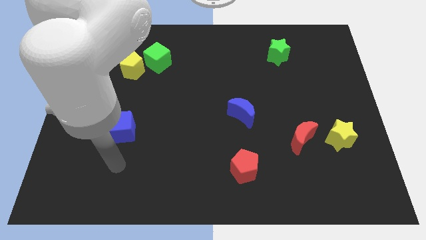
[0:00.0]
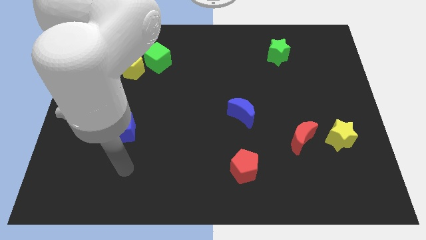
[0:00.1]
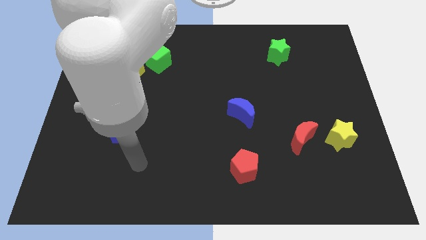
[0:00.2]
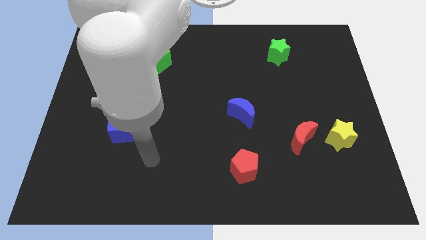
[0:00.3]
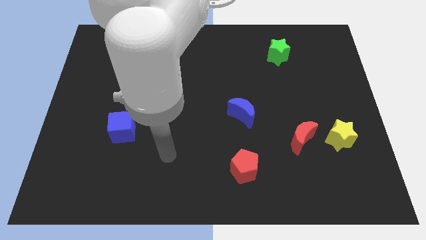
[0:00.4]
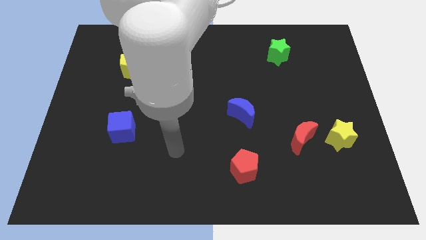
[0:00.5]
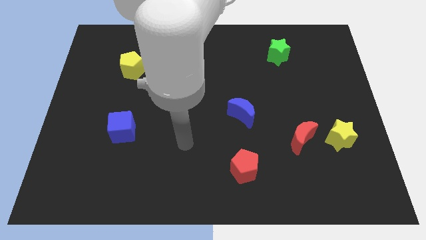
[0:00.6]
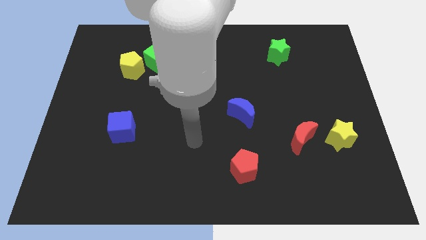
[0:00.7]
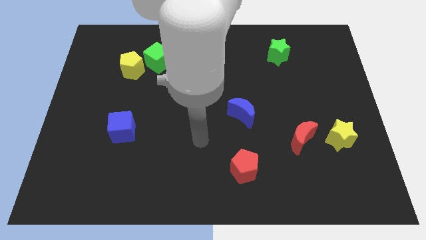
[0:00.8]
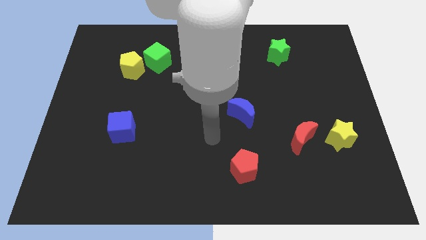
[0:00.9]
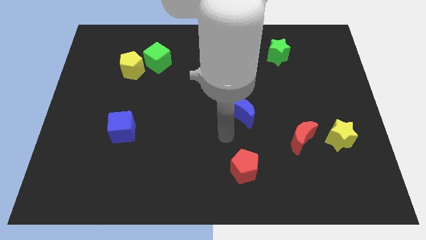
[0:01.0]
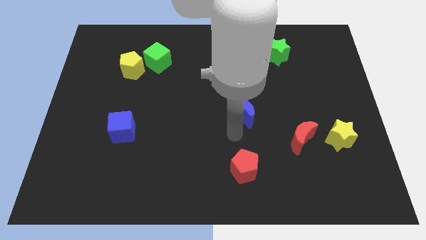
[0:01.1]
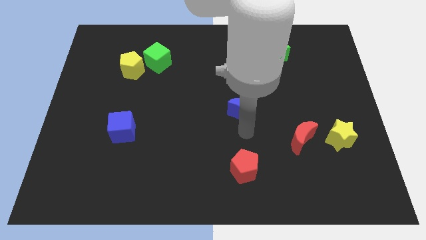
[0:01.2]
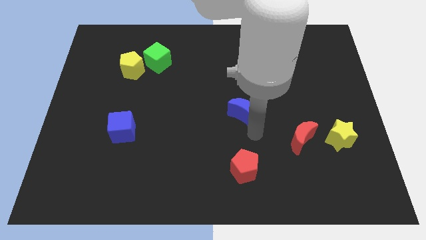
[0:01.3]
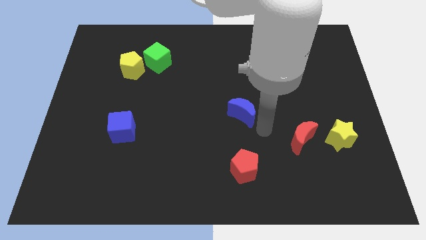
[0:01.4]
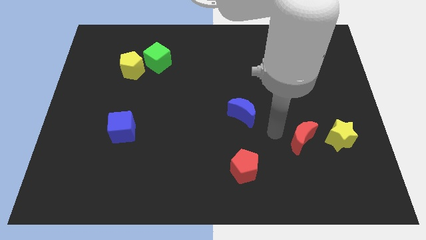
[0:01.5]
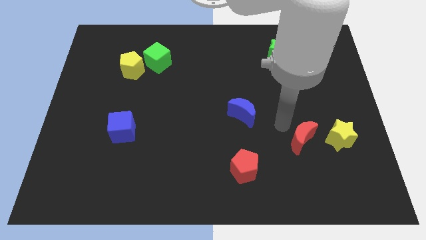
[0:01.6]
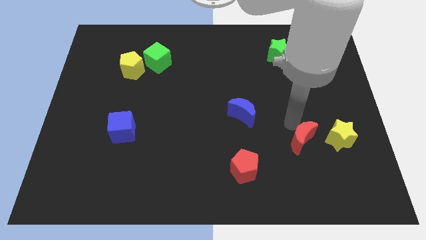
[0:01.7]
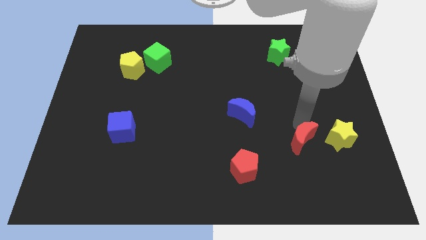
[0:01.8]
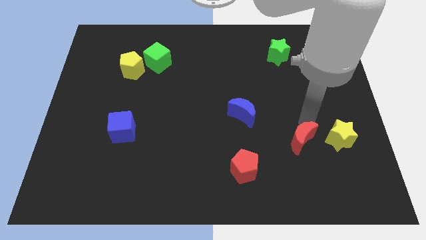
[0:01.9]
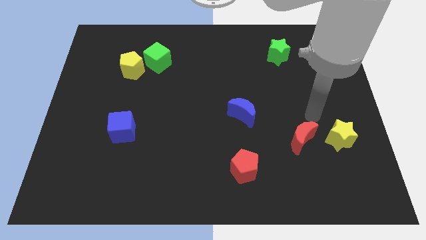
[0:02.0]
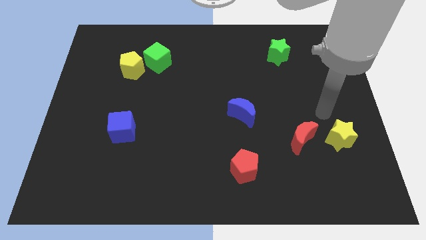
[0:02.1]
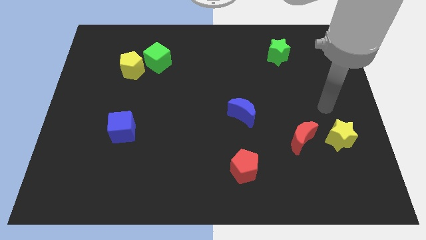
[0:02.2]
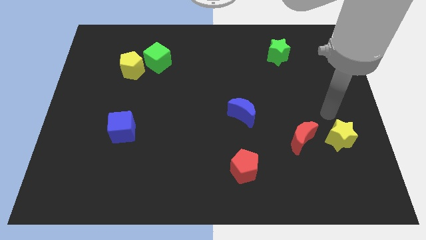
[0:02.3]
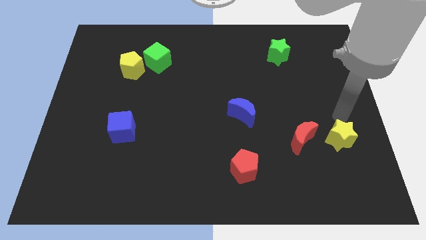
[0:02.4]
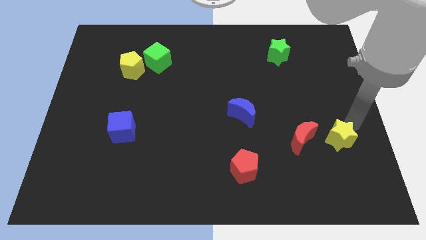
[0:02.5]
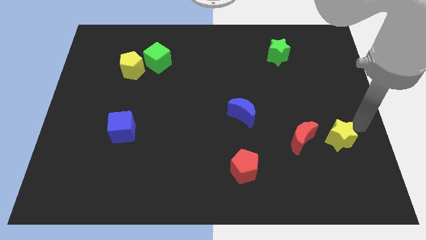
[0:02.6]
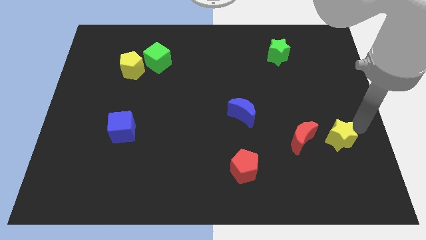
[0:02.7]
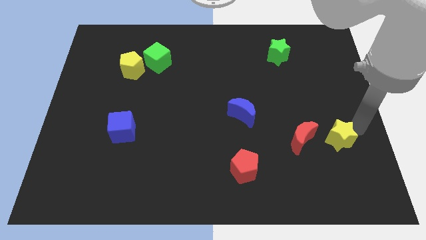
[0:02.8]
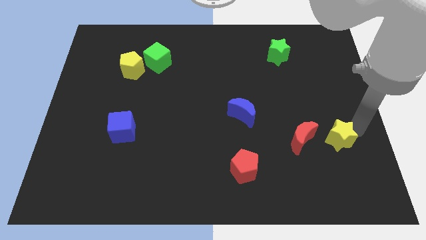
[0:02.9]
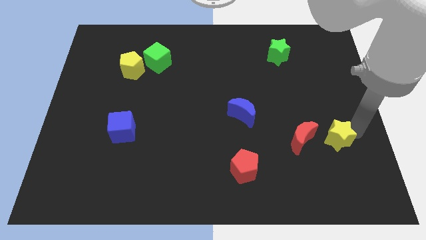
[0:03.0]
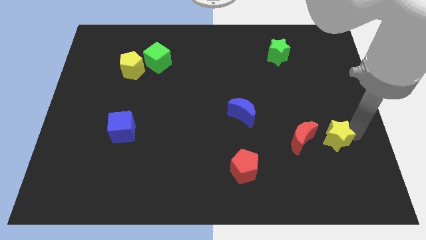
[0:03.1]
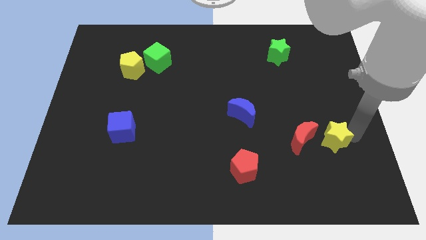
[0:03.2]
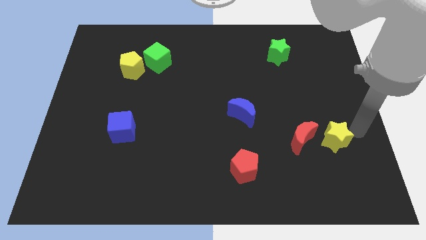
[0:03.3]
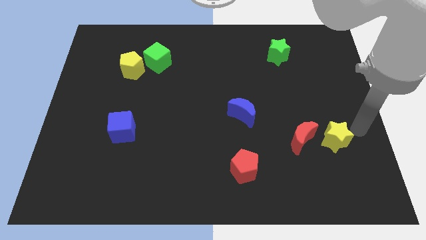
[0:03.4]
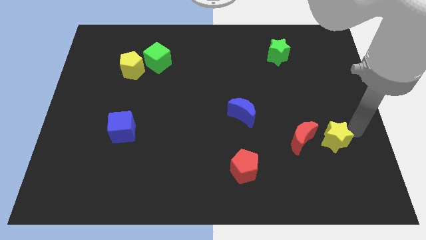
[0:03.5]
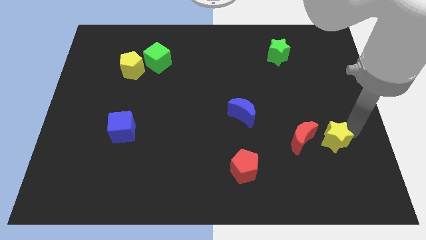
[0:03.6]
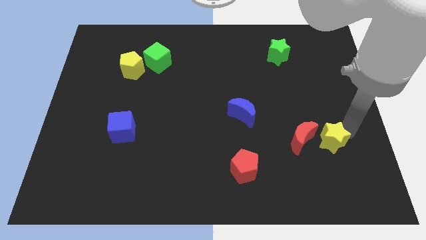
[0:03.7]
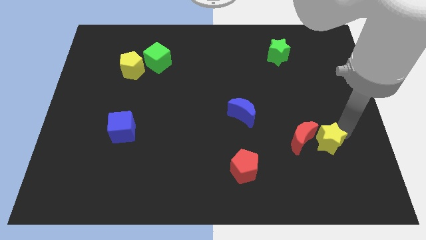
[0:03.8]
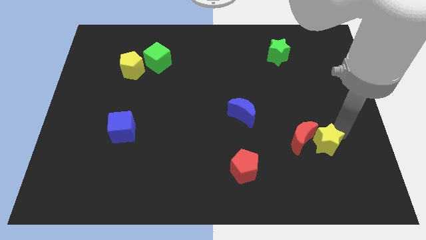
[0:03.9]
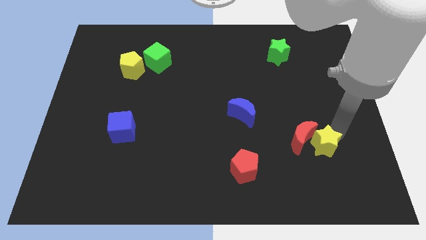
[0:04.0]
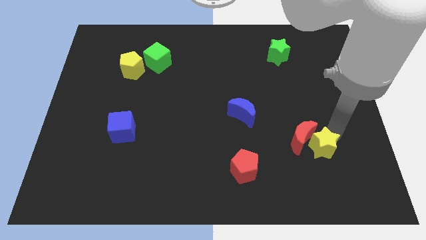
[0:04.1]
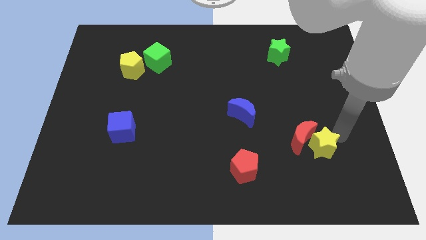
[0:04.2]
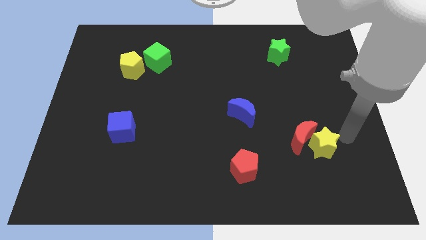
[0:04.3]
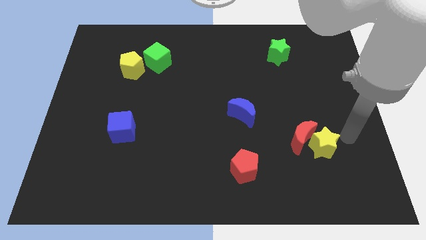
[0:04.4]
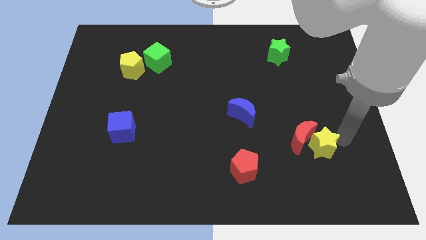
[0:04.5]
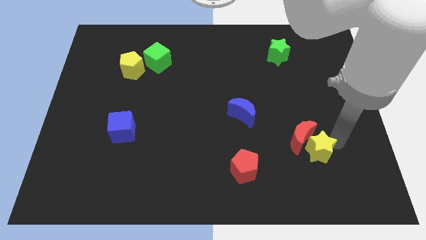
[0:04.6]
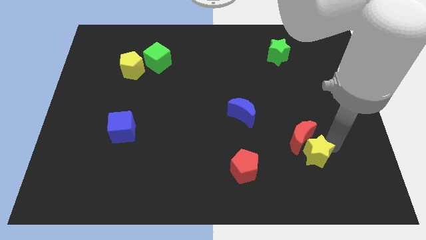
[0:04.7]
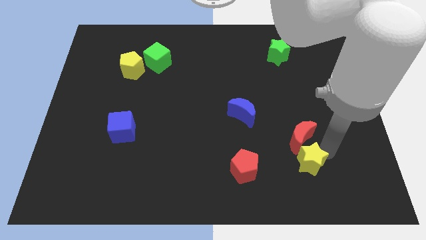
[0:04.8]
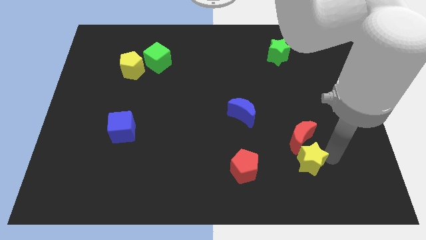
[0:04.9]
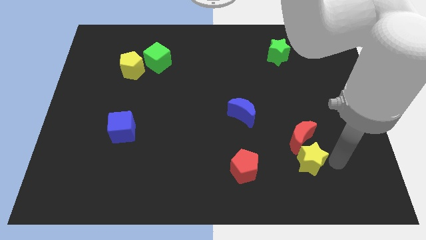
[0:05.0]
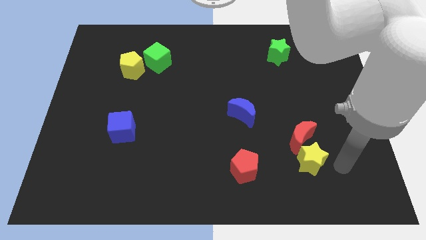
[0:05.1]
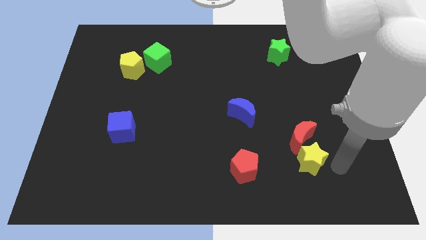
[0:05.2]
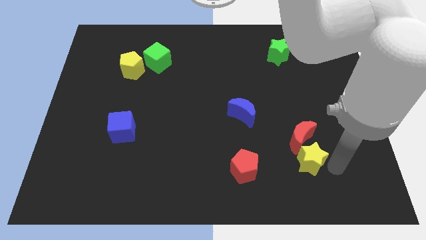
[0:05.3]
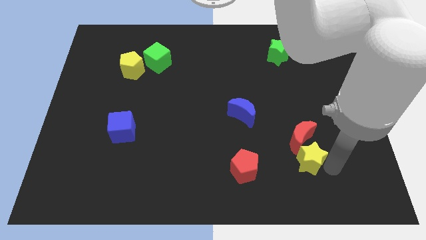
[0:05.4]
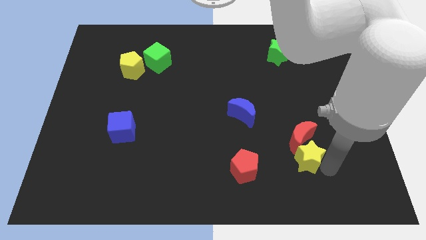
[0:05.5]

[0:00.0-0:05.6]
slide the yellow star diagonally down and to the left of the red moon

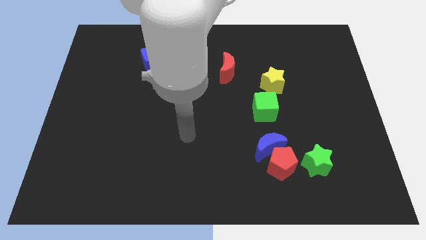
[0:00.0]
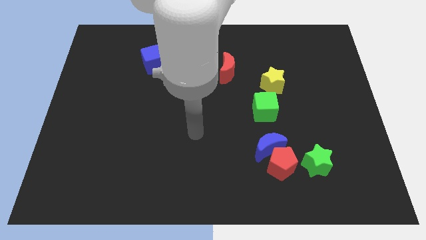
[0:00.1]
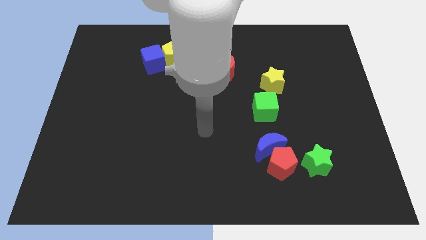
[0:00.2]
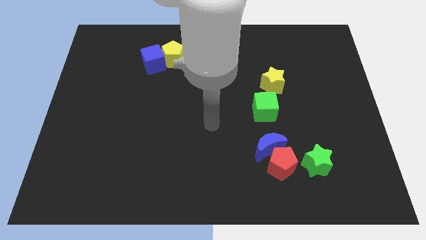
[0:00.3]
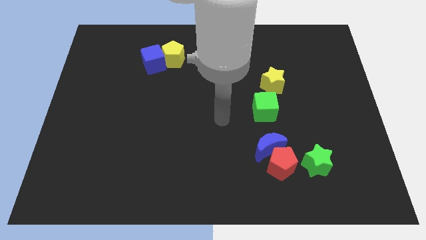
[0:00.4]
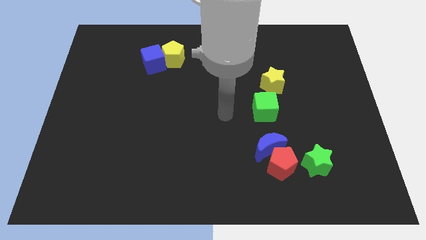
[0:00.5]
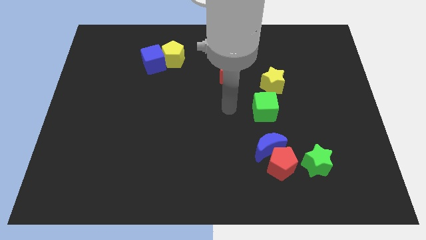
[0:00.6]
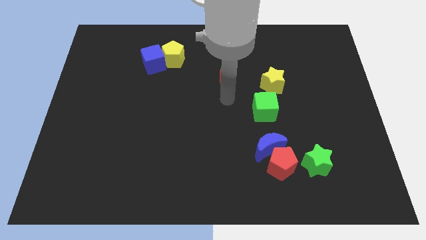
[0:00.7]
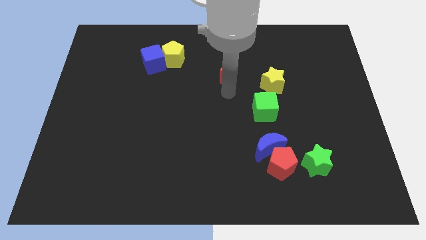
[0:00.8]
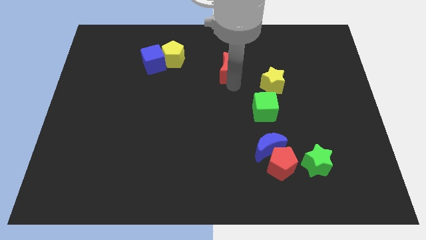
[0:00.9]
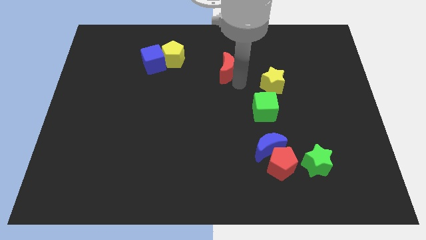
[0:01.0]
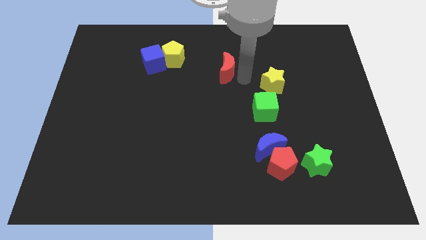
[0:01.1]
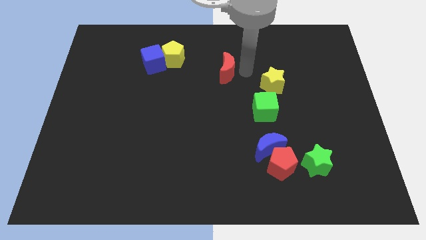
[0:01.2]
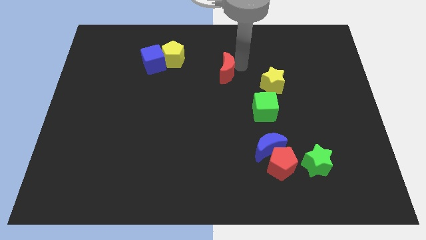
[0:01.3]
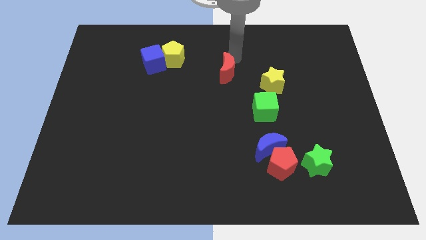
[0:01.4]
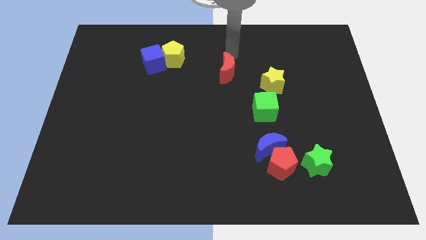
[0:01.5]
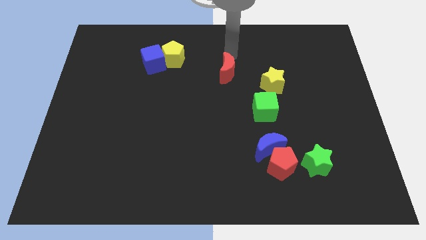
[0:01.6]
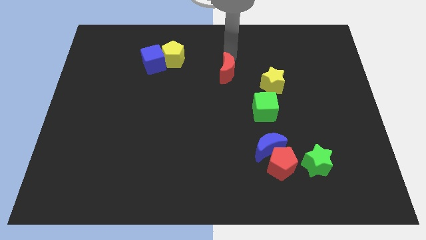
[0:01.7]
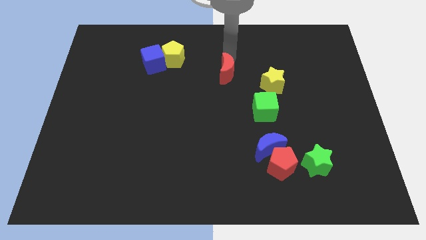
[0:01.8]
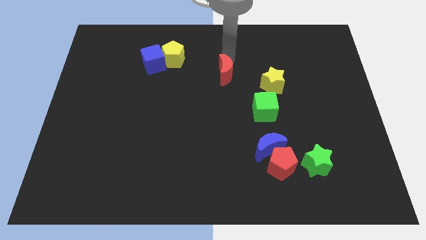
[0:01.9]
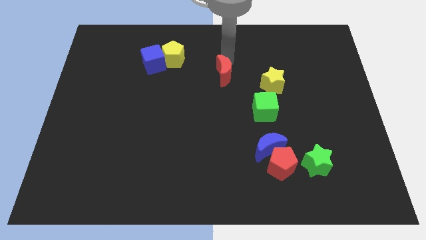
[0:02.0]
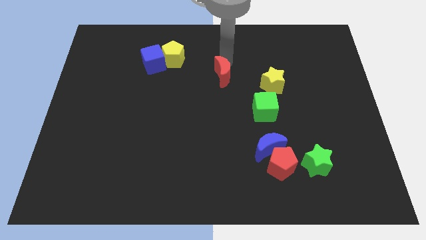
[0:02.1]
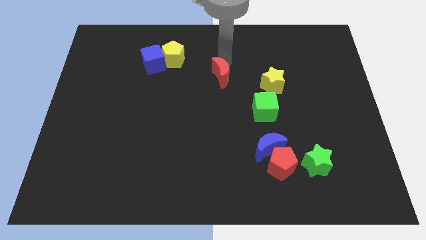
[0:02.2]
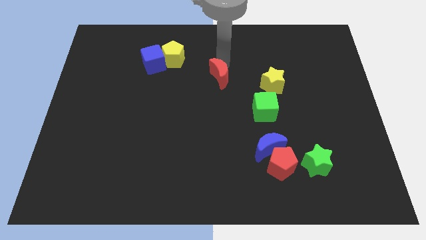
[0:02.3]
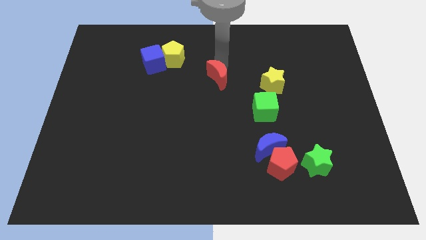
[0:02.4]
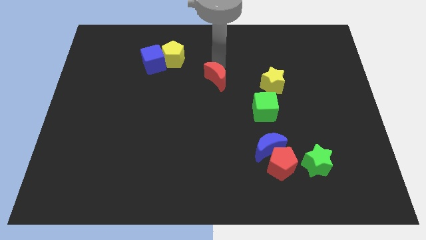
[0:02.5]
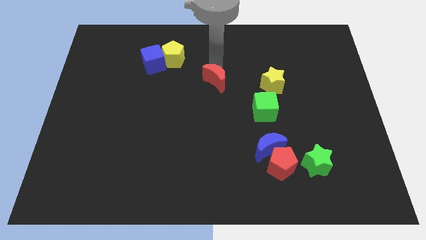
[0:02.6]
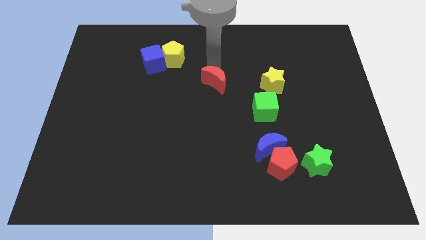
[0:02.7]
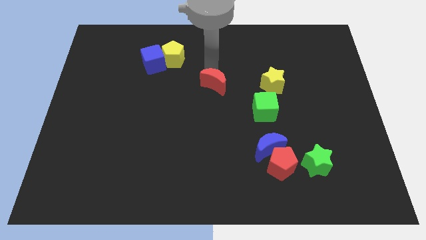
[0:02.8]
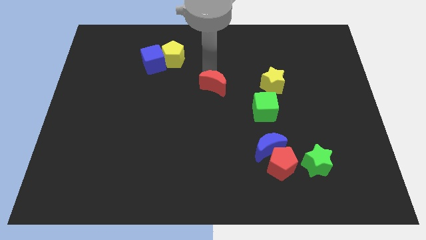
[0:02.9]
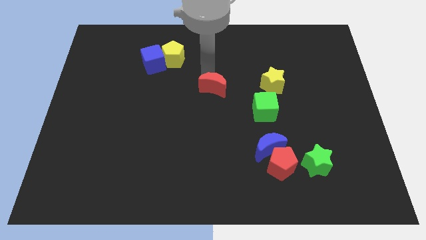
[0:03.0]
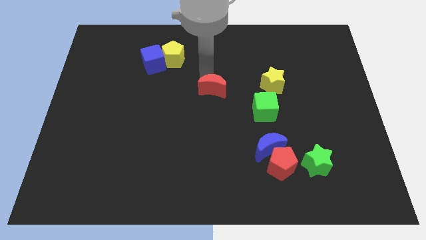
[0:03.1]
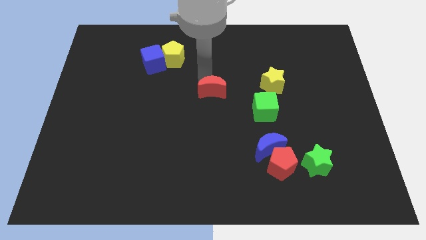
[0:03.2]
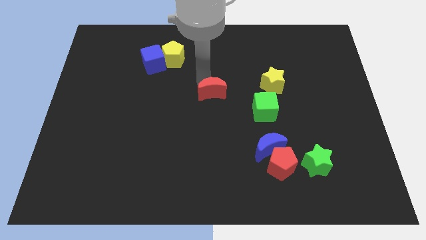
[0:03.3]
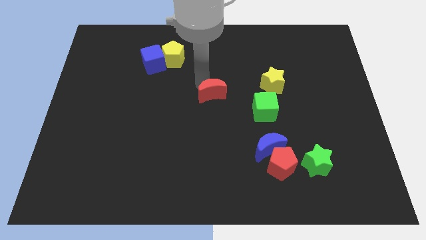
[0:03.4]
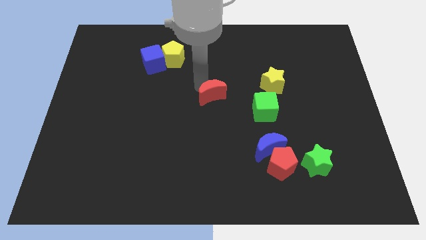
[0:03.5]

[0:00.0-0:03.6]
slide the red moon to the left of the green cube
